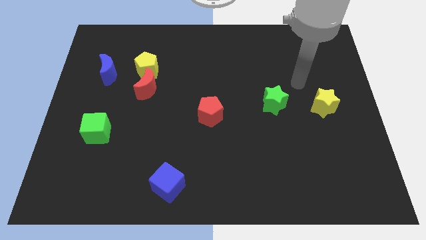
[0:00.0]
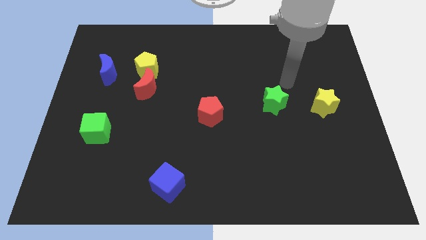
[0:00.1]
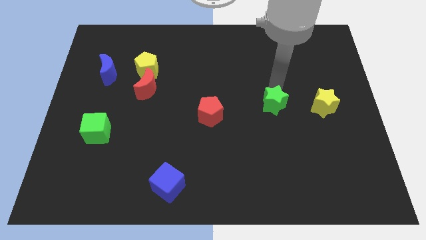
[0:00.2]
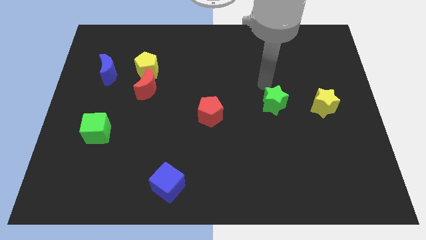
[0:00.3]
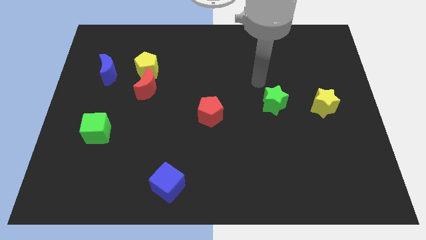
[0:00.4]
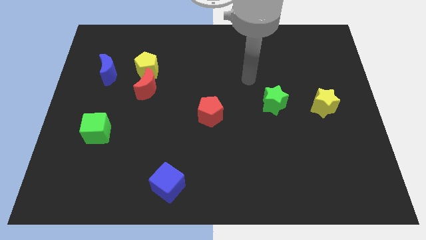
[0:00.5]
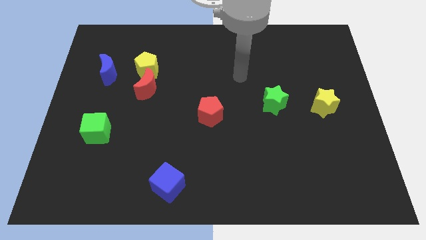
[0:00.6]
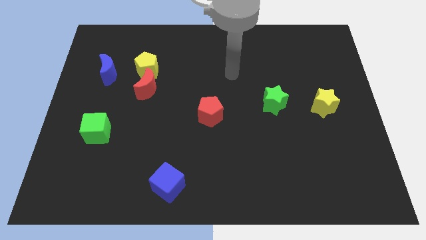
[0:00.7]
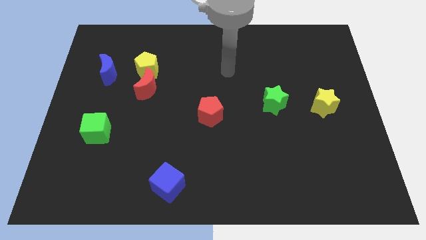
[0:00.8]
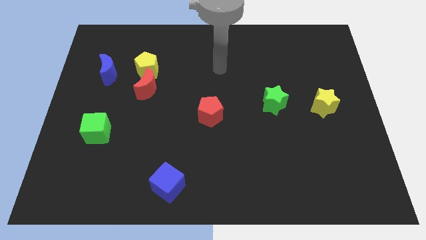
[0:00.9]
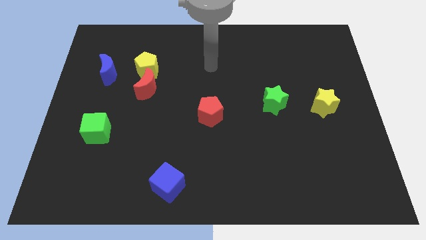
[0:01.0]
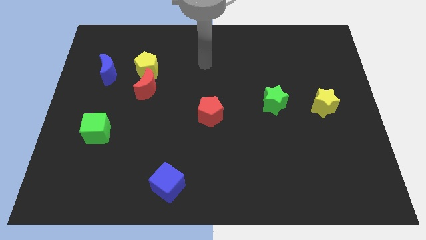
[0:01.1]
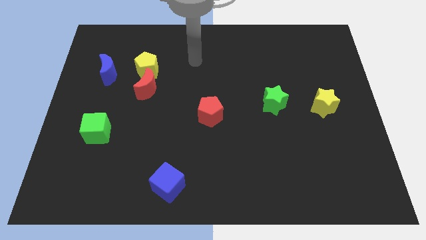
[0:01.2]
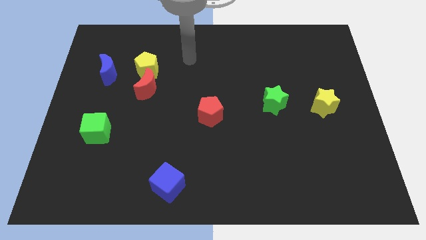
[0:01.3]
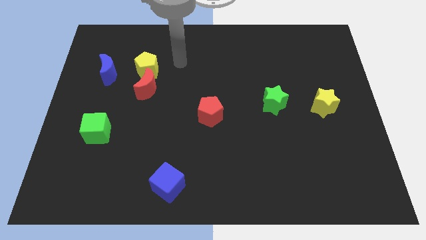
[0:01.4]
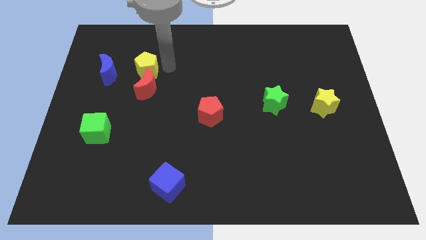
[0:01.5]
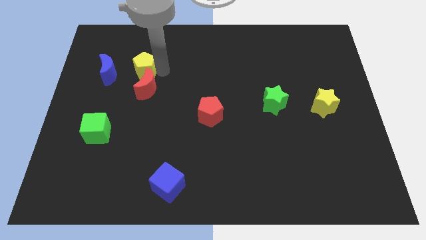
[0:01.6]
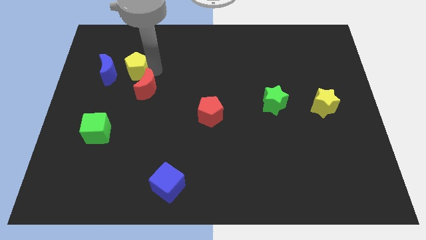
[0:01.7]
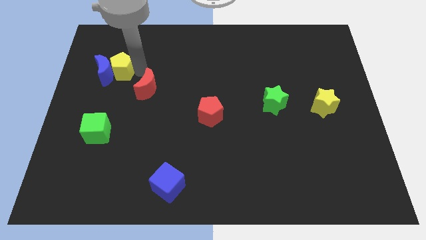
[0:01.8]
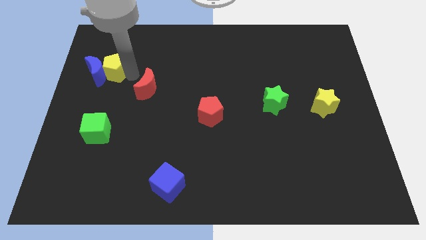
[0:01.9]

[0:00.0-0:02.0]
move the red moon away from the yellow pentagon

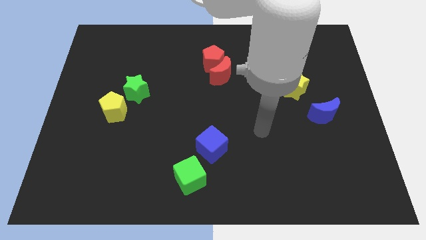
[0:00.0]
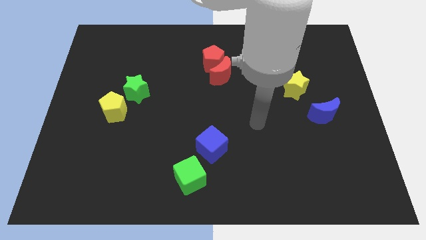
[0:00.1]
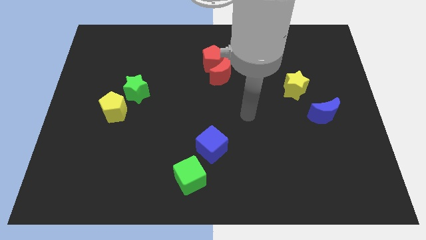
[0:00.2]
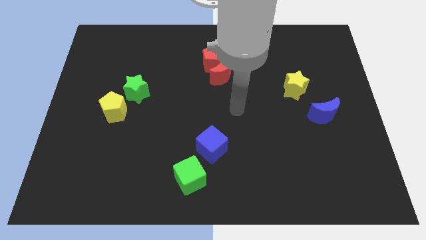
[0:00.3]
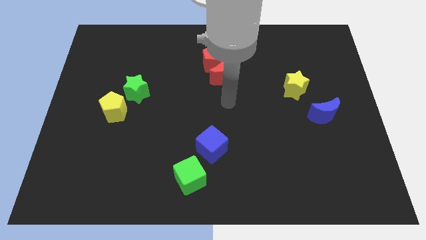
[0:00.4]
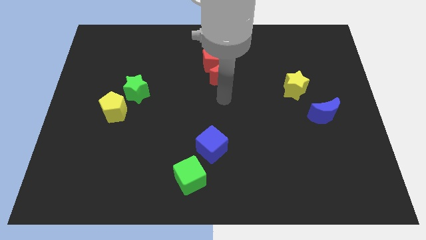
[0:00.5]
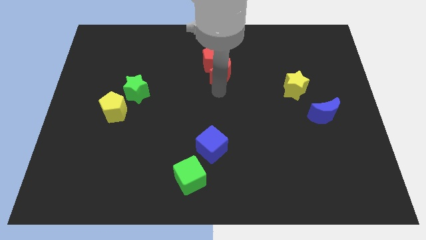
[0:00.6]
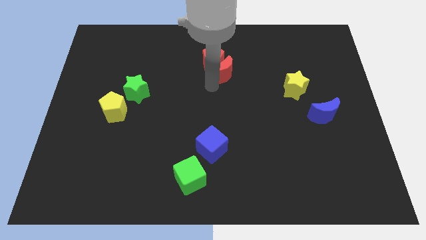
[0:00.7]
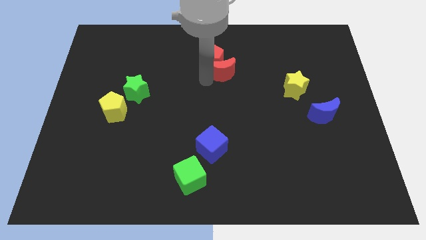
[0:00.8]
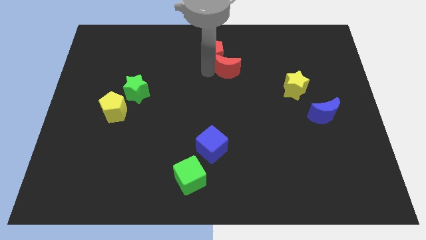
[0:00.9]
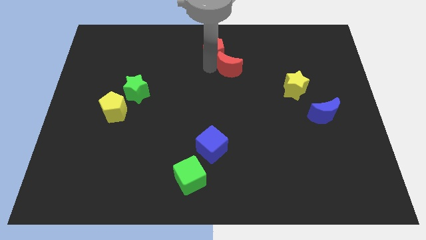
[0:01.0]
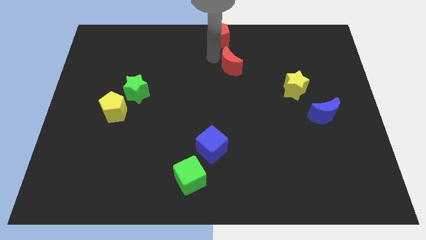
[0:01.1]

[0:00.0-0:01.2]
move the red moon away from the red pentagon

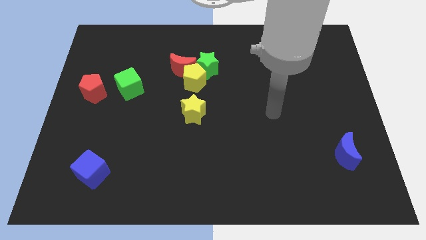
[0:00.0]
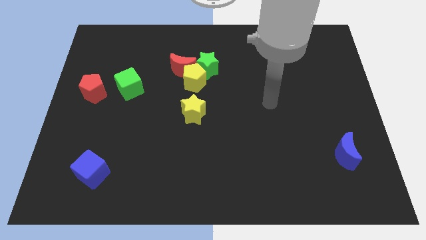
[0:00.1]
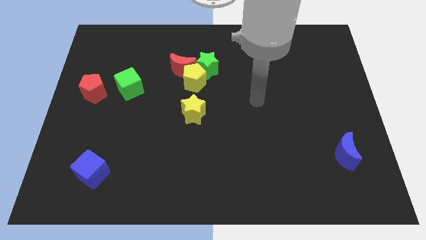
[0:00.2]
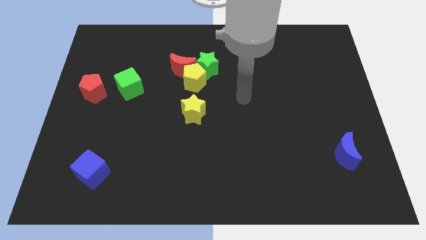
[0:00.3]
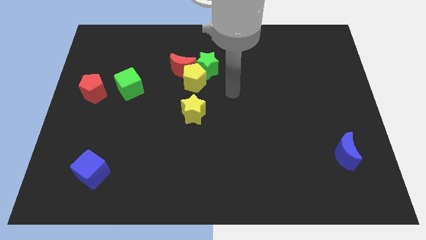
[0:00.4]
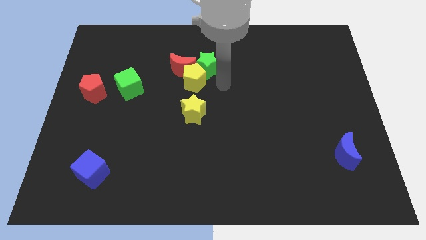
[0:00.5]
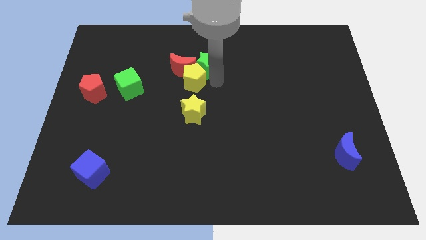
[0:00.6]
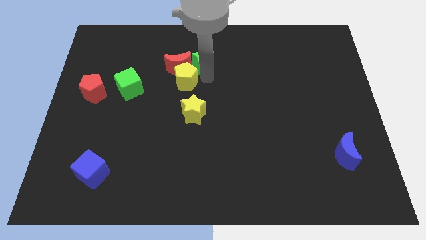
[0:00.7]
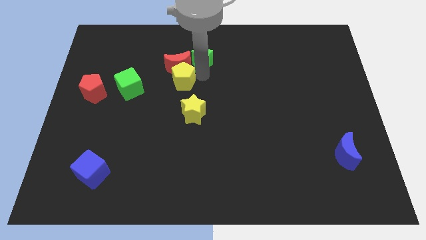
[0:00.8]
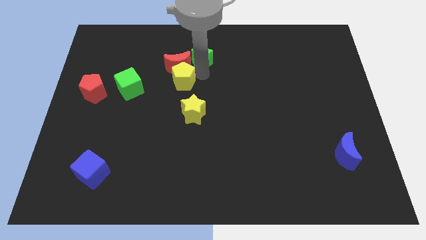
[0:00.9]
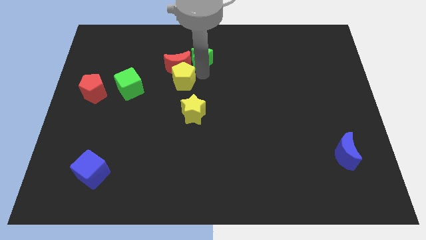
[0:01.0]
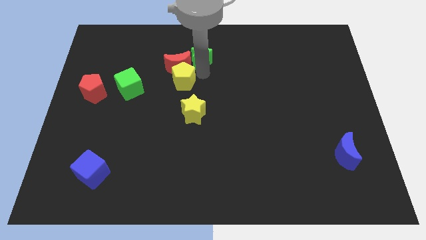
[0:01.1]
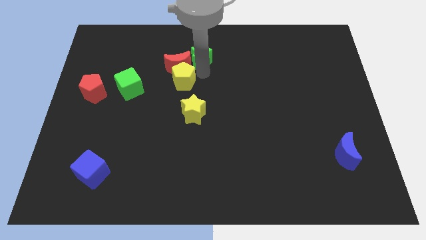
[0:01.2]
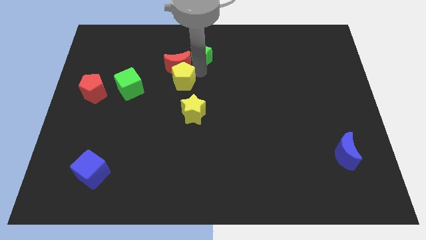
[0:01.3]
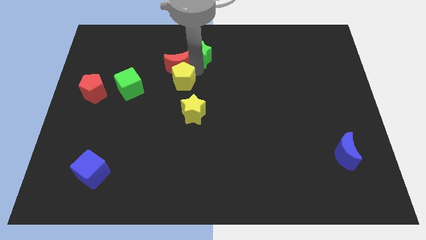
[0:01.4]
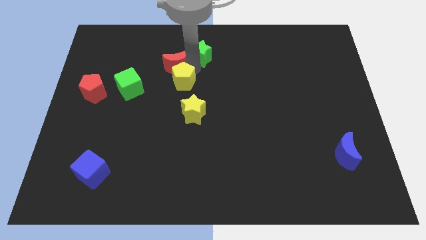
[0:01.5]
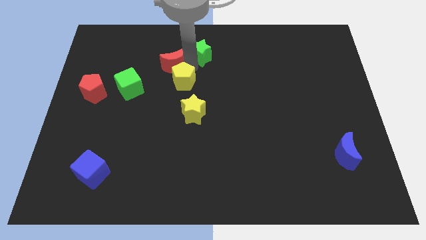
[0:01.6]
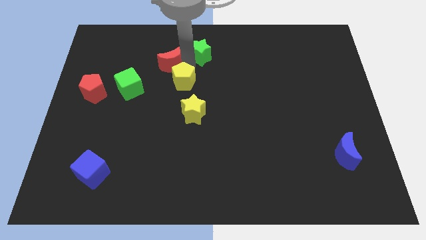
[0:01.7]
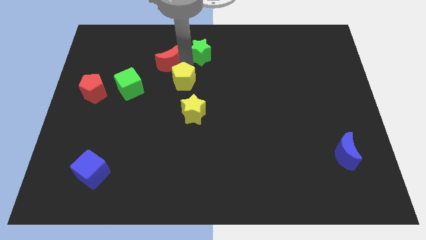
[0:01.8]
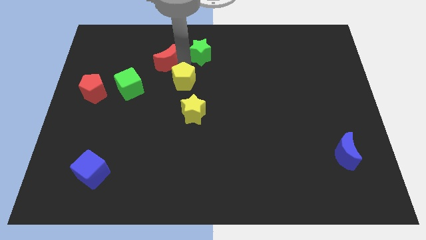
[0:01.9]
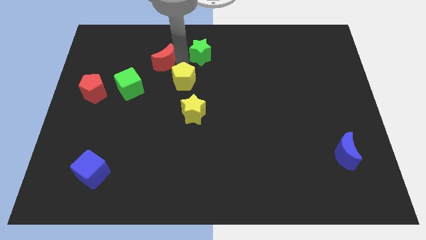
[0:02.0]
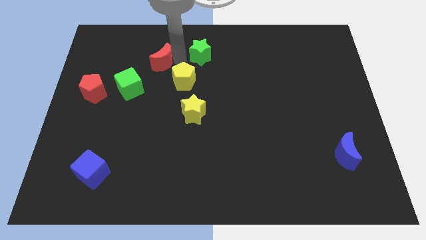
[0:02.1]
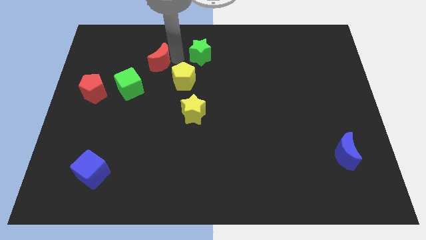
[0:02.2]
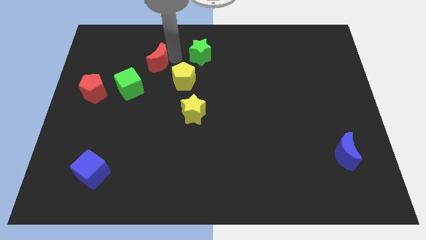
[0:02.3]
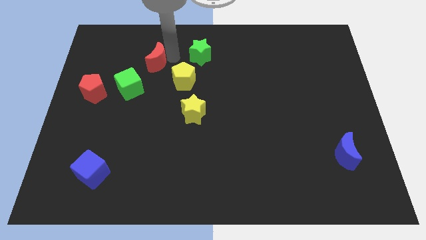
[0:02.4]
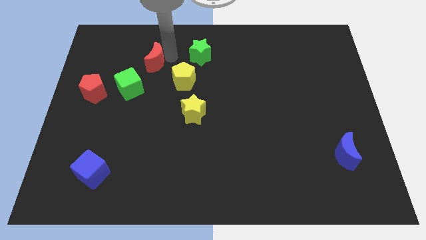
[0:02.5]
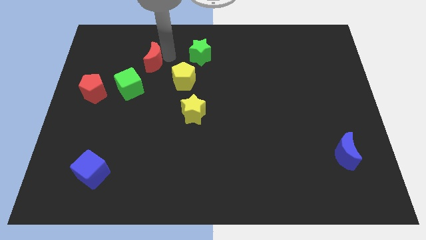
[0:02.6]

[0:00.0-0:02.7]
move the red moon away from the yellow pentagon and green star

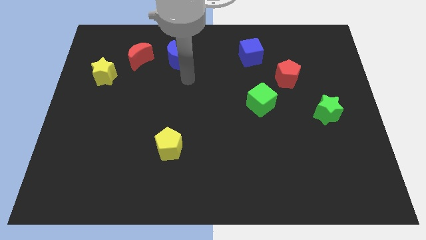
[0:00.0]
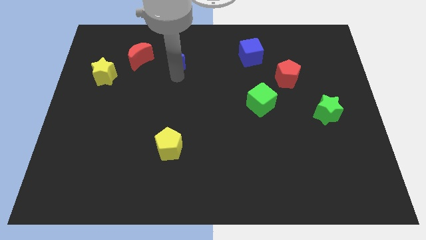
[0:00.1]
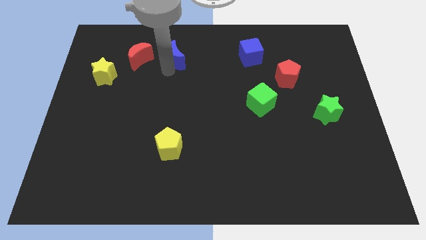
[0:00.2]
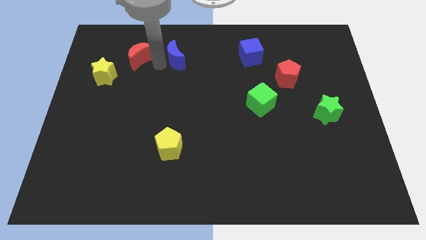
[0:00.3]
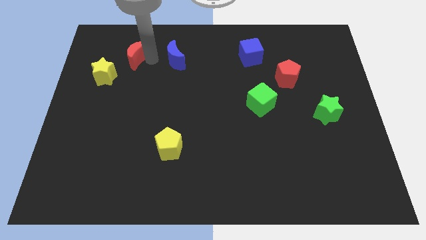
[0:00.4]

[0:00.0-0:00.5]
separate the blue moon from the red moon

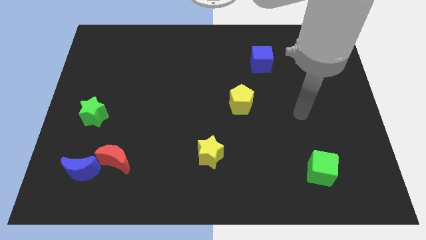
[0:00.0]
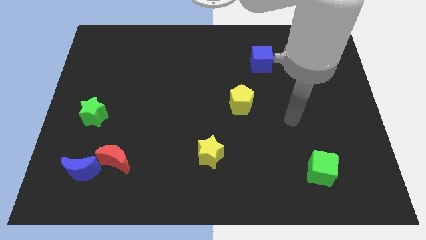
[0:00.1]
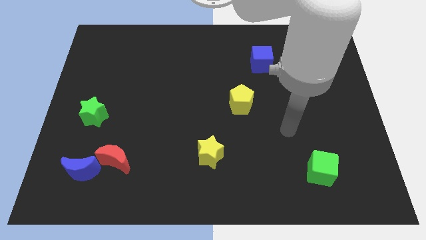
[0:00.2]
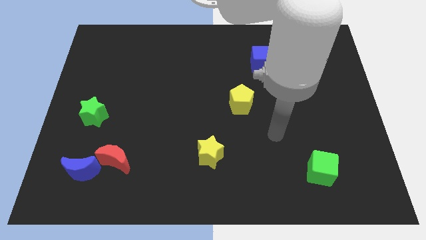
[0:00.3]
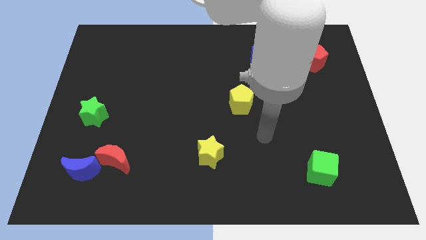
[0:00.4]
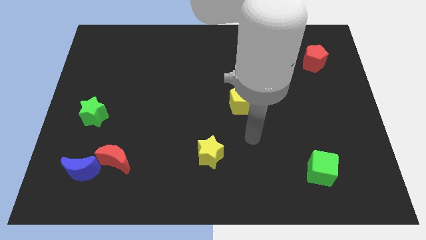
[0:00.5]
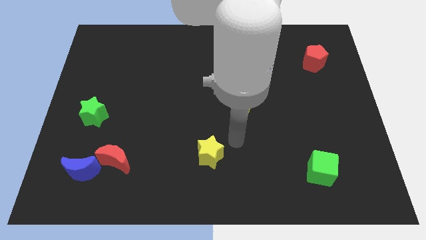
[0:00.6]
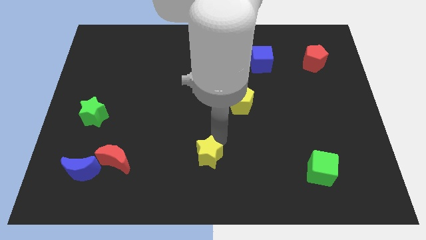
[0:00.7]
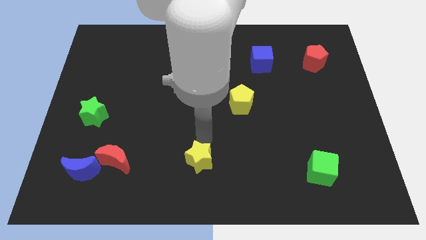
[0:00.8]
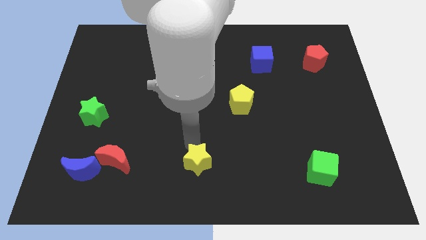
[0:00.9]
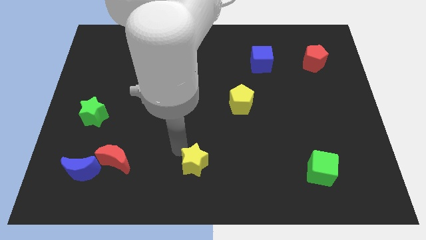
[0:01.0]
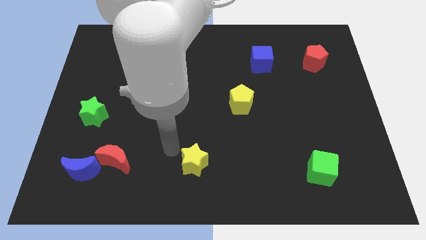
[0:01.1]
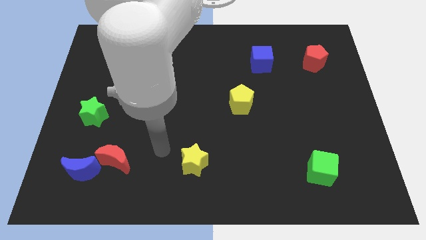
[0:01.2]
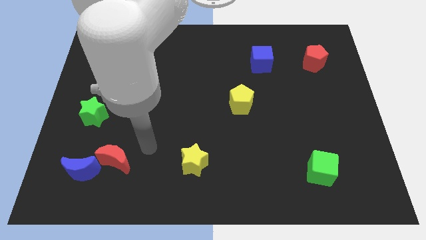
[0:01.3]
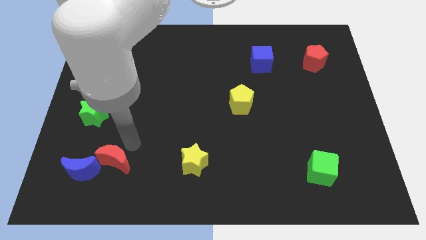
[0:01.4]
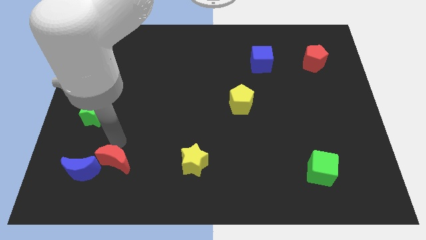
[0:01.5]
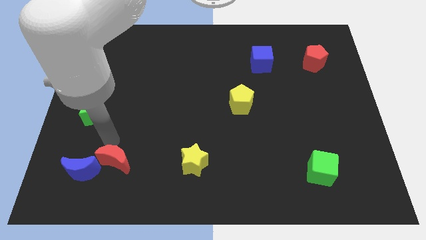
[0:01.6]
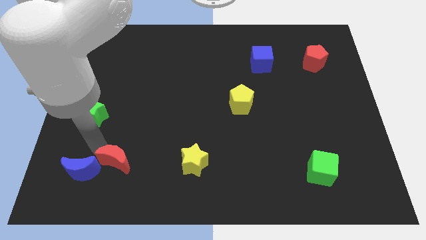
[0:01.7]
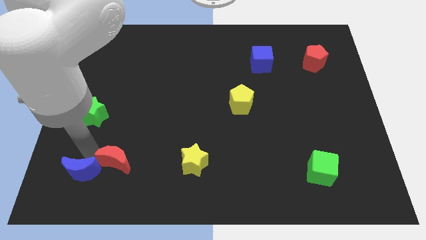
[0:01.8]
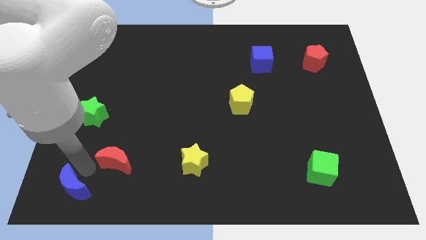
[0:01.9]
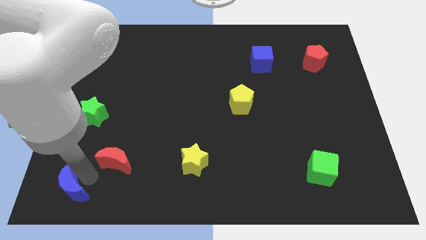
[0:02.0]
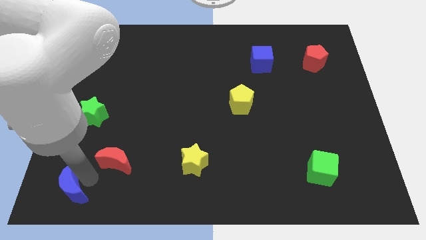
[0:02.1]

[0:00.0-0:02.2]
separate the red moon from the blue moon

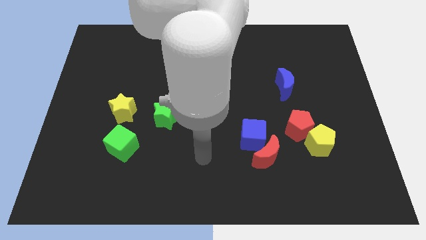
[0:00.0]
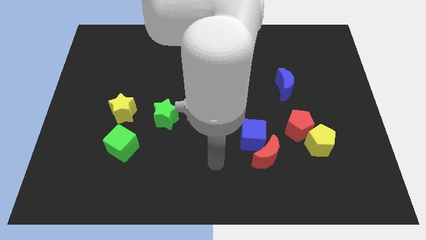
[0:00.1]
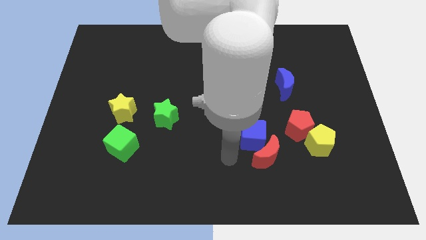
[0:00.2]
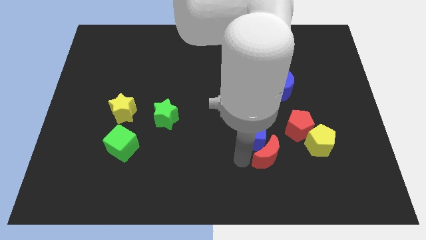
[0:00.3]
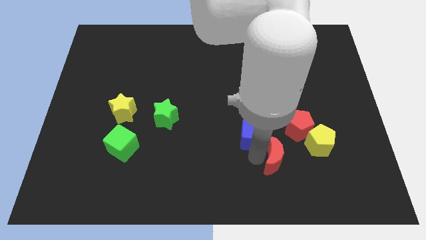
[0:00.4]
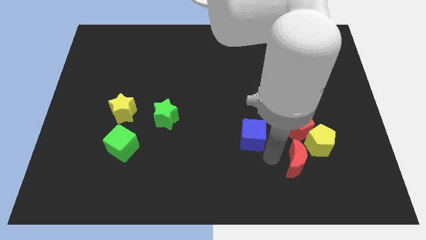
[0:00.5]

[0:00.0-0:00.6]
separate the blue cube from the red moon

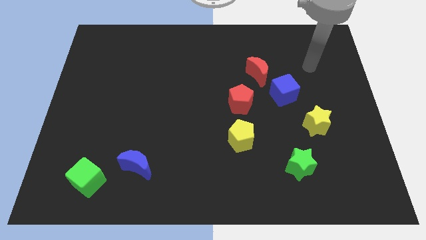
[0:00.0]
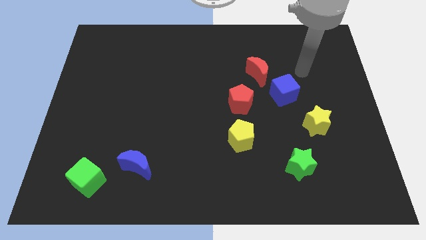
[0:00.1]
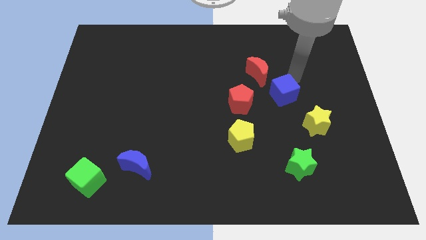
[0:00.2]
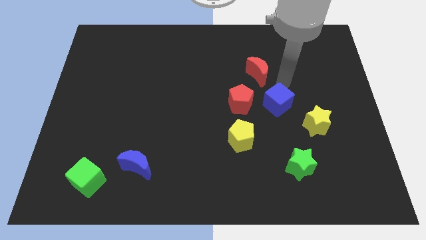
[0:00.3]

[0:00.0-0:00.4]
separate the red moon from the blue cube
